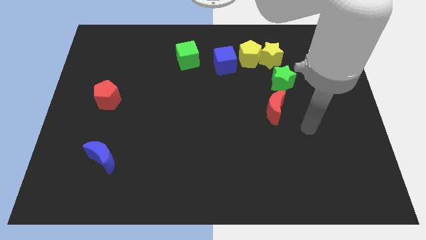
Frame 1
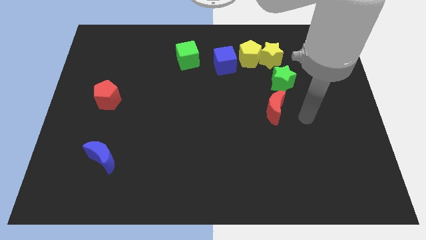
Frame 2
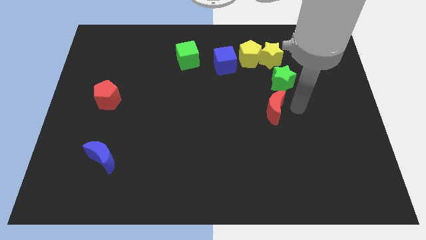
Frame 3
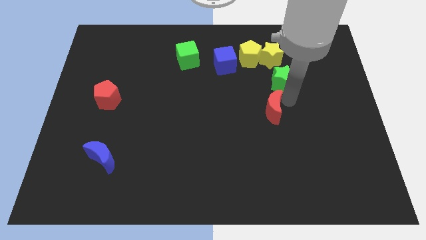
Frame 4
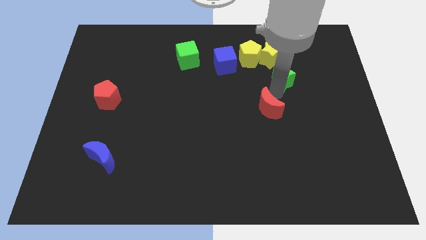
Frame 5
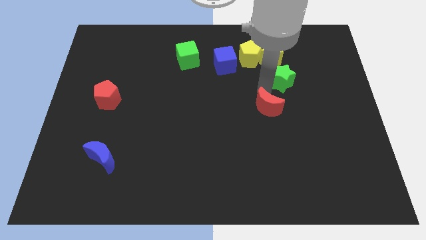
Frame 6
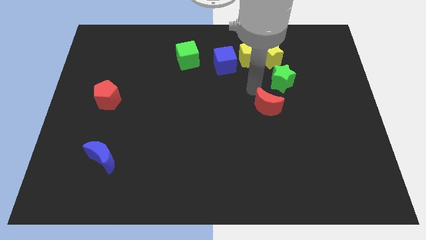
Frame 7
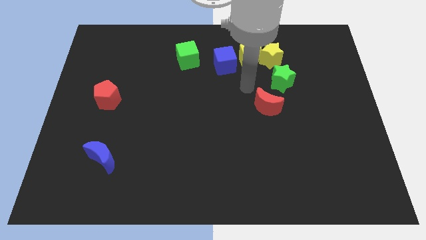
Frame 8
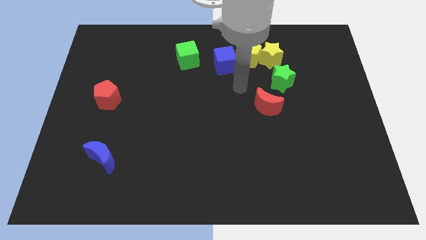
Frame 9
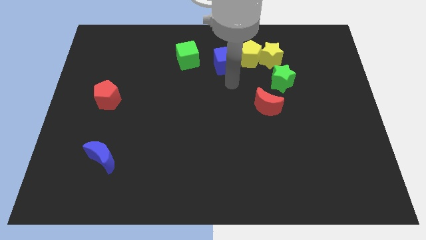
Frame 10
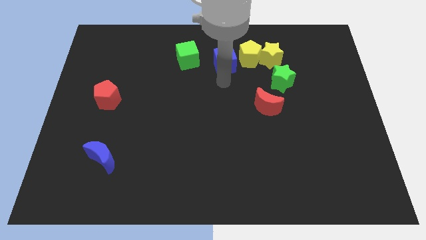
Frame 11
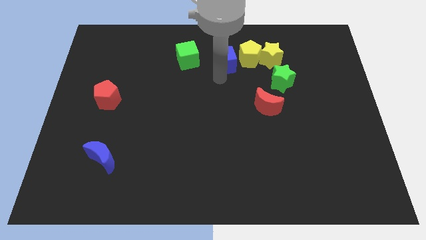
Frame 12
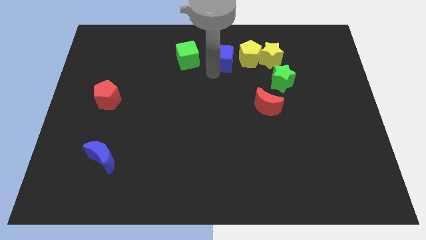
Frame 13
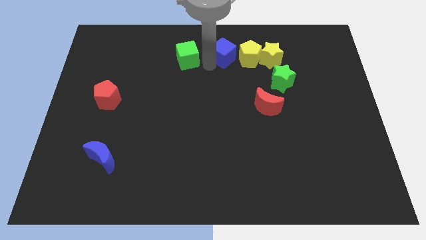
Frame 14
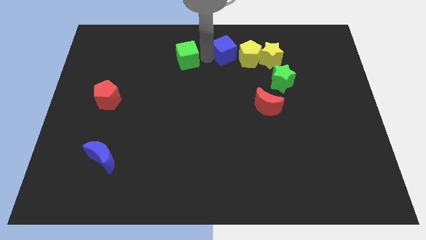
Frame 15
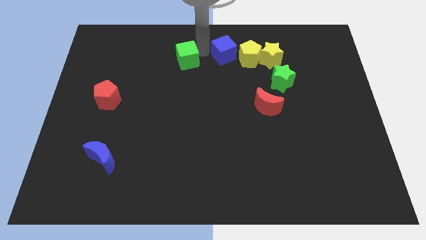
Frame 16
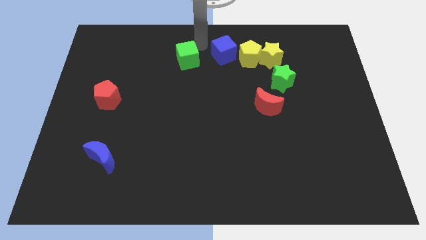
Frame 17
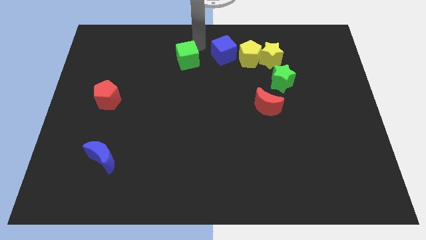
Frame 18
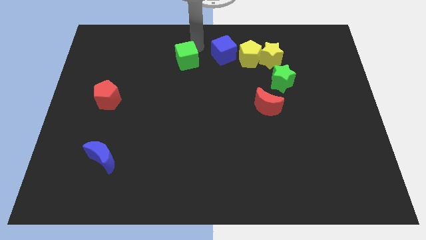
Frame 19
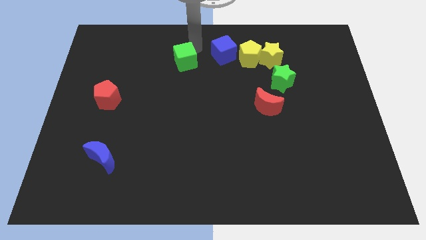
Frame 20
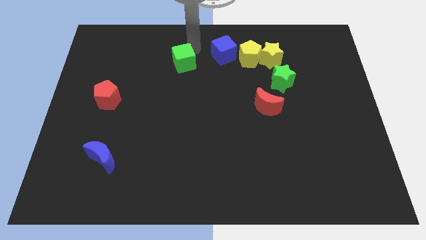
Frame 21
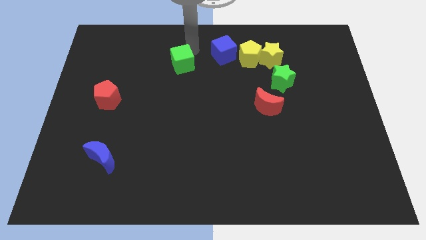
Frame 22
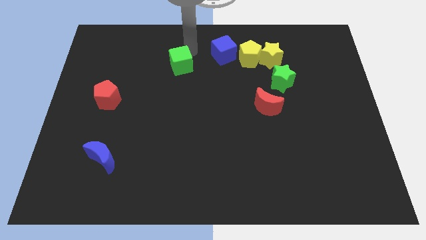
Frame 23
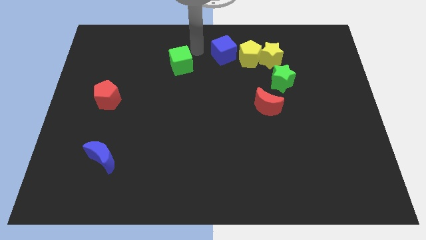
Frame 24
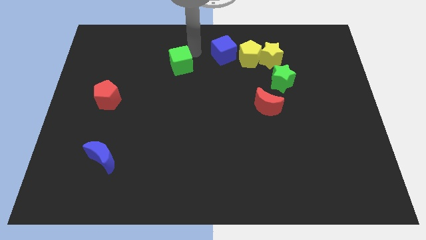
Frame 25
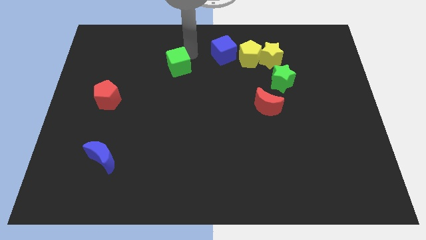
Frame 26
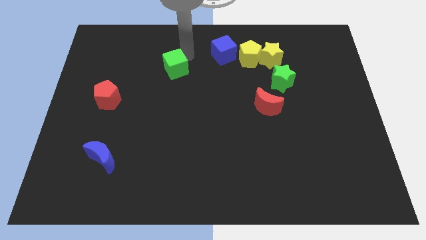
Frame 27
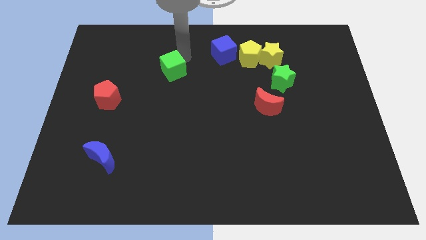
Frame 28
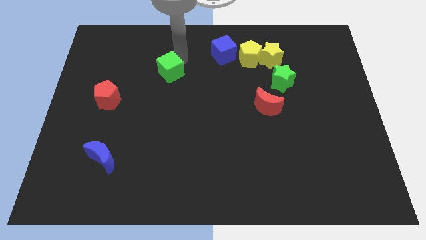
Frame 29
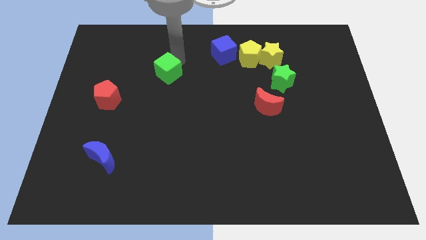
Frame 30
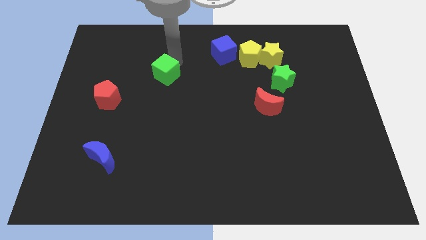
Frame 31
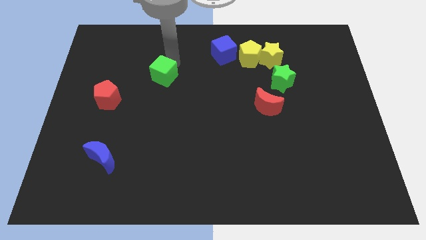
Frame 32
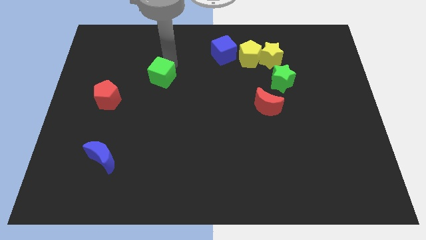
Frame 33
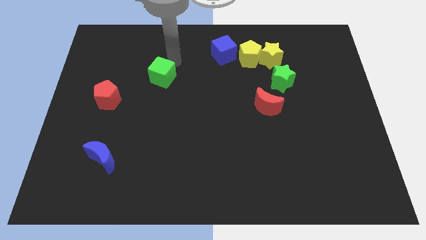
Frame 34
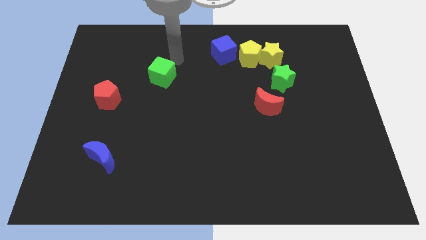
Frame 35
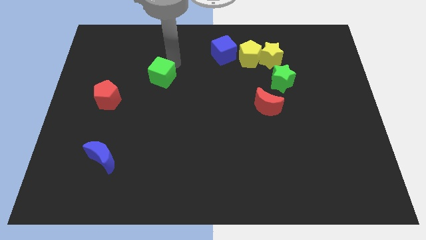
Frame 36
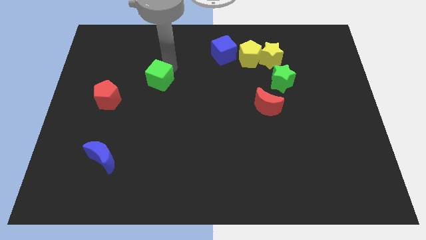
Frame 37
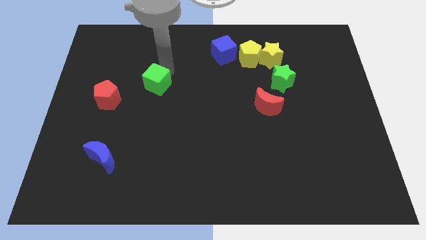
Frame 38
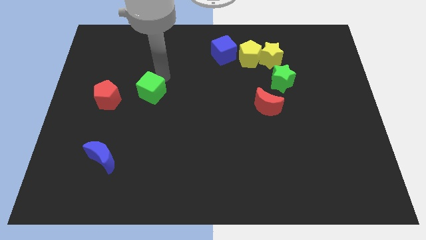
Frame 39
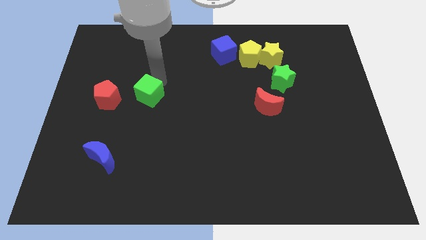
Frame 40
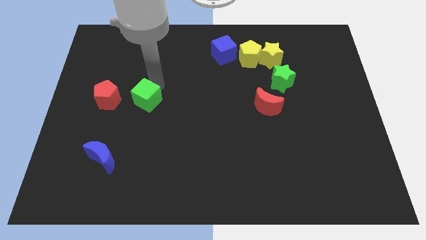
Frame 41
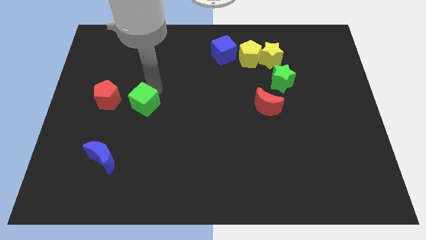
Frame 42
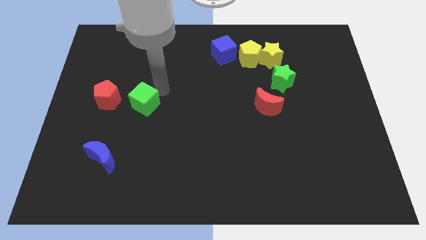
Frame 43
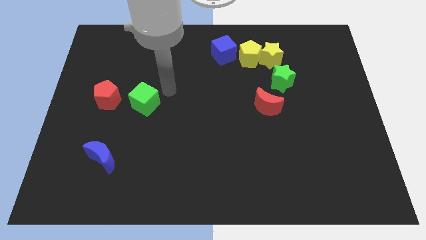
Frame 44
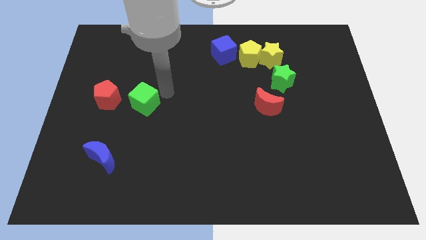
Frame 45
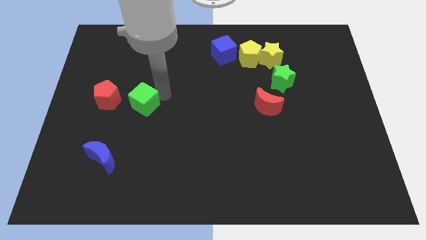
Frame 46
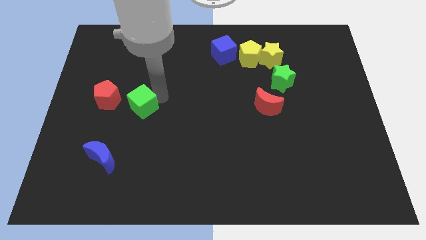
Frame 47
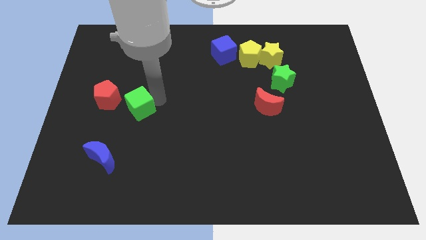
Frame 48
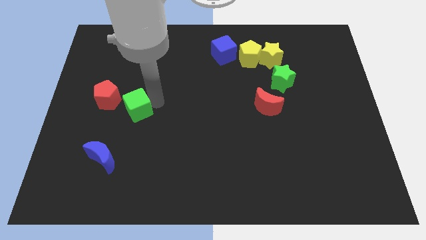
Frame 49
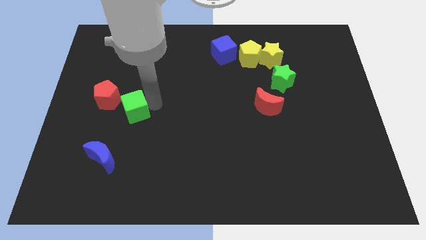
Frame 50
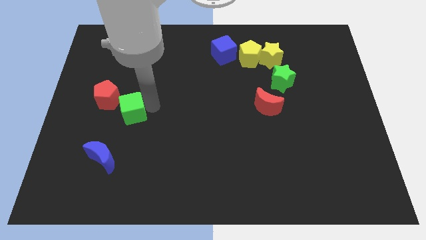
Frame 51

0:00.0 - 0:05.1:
put the green cube to the top of the blue moon

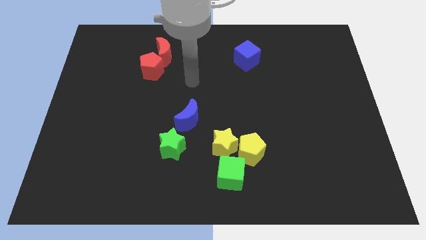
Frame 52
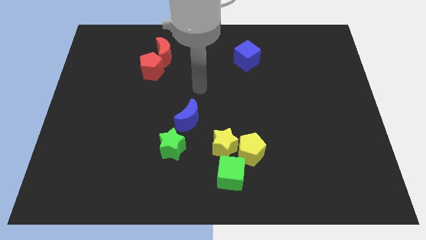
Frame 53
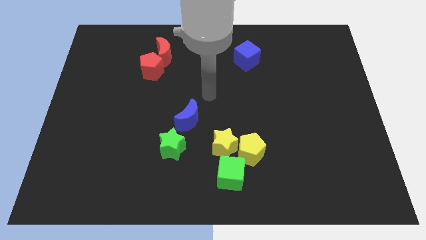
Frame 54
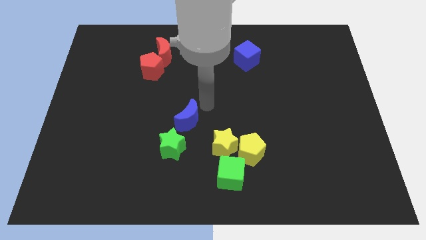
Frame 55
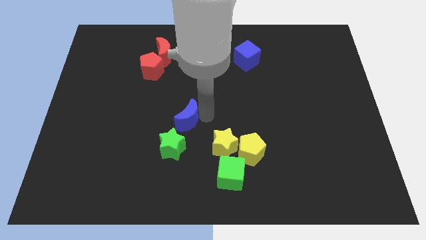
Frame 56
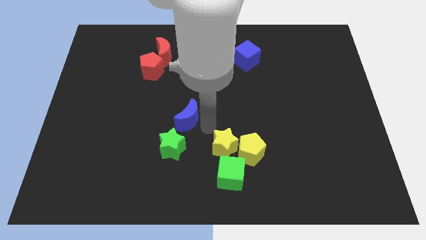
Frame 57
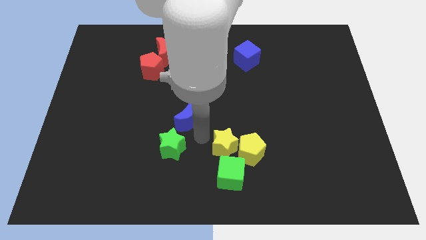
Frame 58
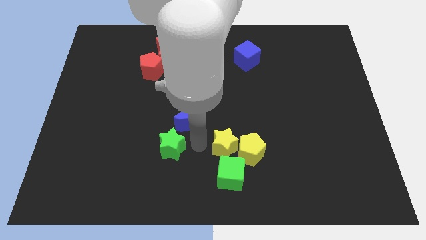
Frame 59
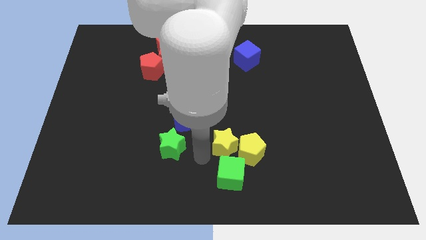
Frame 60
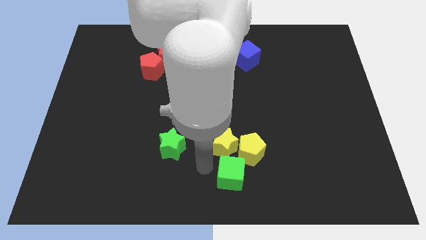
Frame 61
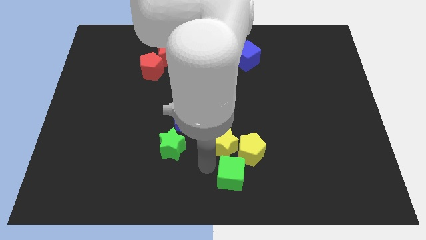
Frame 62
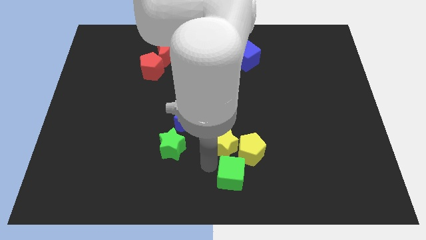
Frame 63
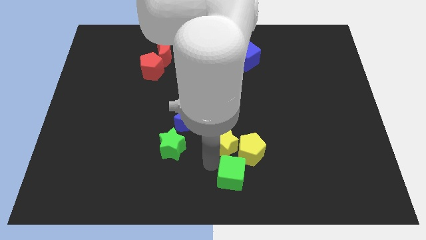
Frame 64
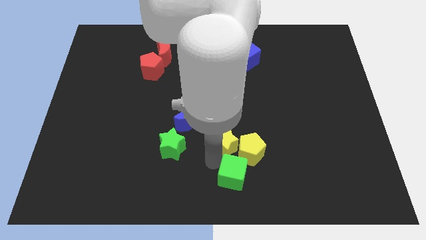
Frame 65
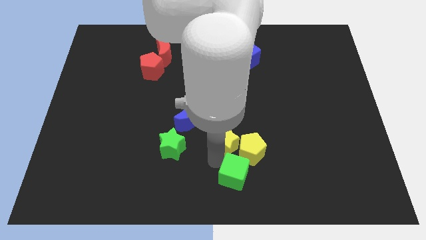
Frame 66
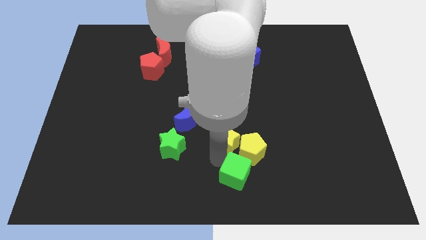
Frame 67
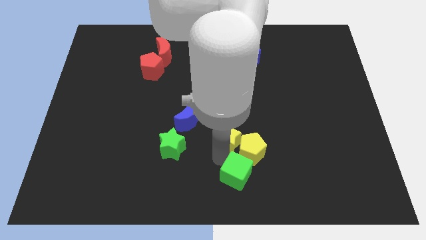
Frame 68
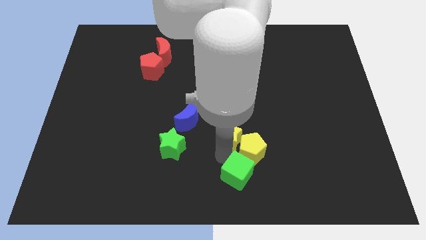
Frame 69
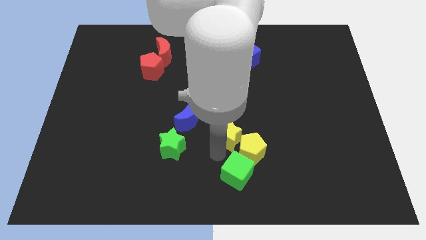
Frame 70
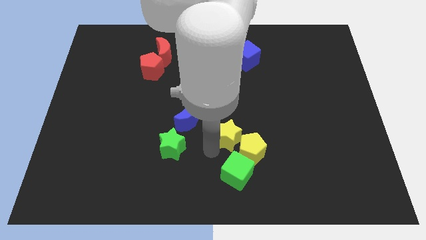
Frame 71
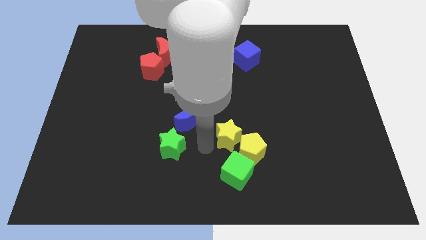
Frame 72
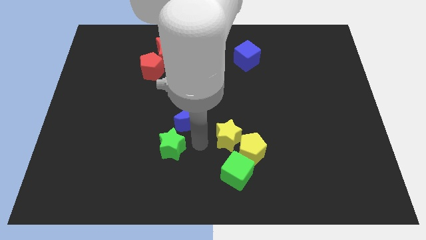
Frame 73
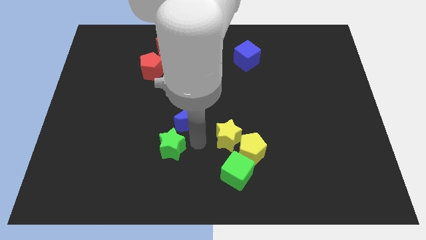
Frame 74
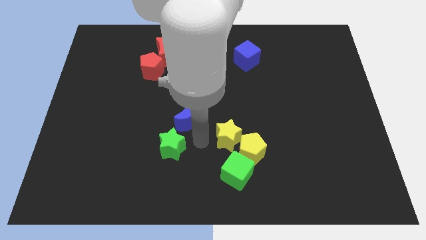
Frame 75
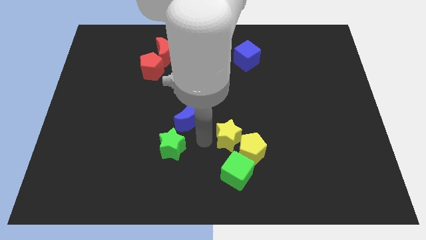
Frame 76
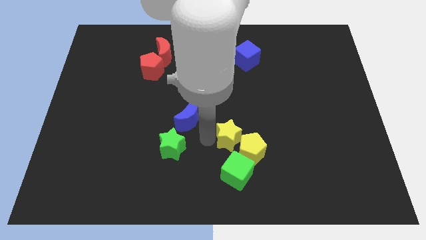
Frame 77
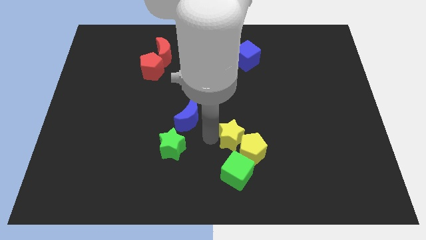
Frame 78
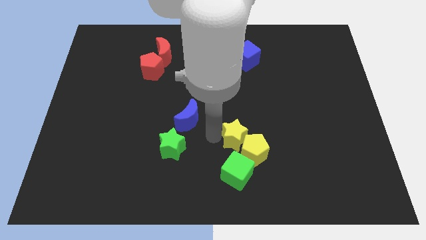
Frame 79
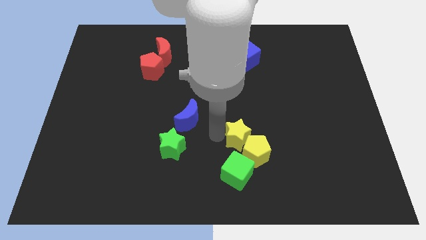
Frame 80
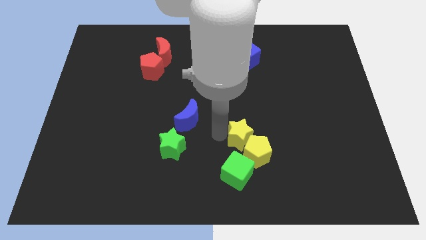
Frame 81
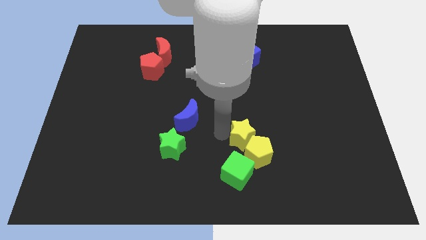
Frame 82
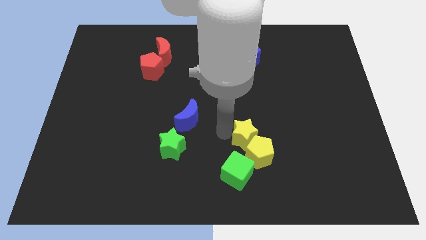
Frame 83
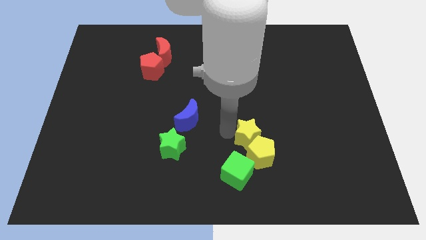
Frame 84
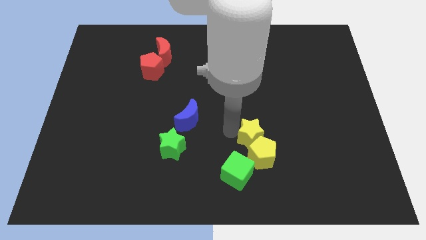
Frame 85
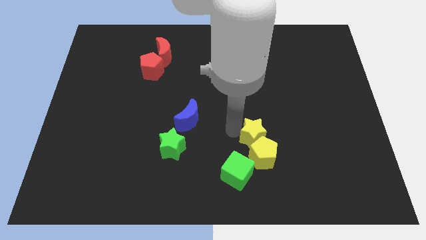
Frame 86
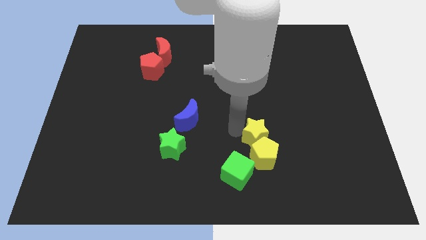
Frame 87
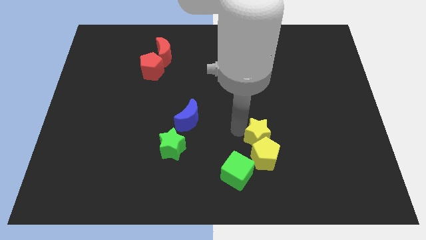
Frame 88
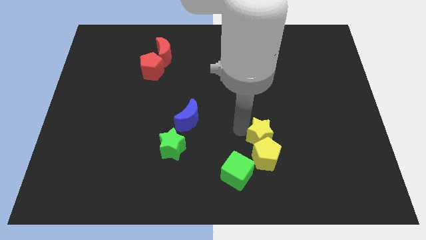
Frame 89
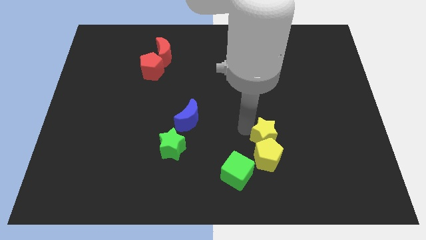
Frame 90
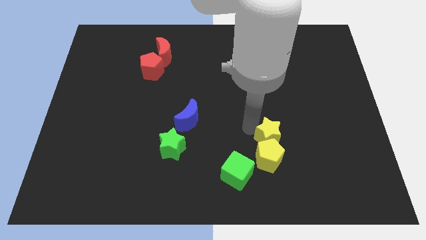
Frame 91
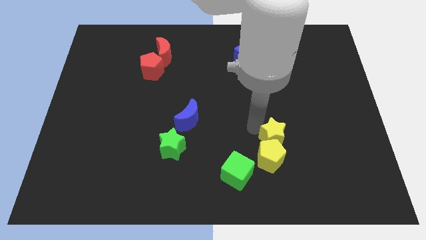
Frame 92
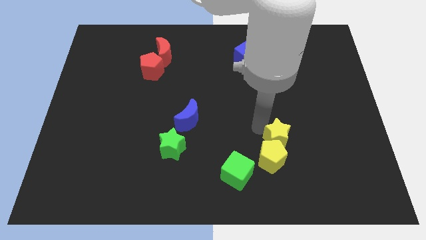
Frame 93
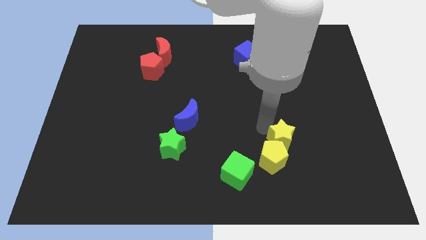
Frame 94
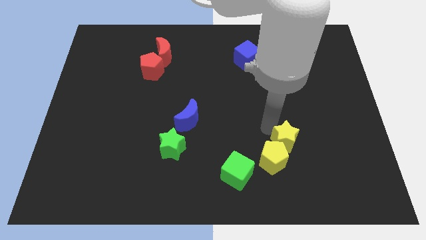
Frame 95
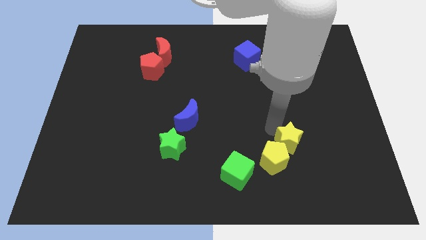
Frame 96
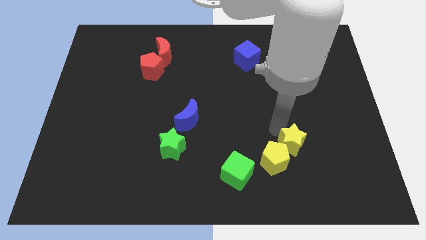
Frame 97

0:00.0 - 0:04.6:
push the yellow star to the right side of the yellow pentagon
